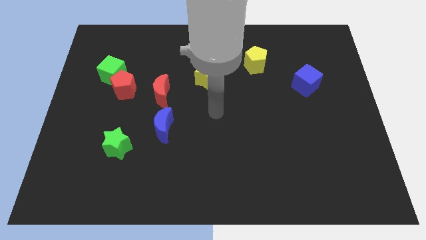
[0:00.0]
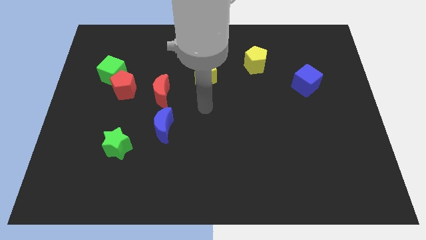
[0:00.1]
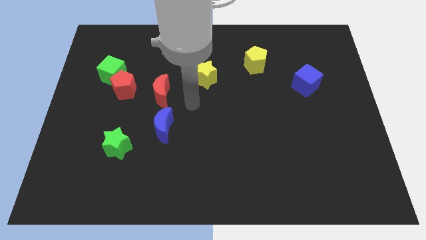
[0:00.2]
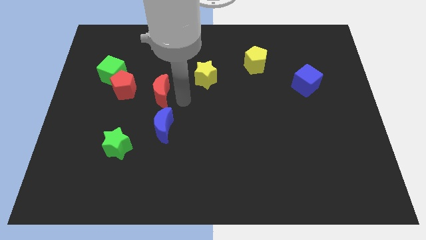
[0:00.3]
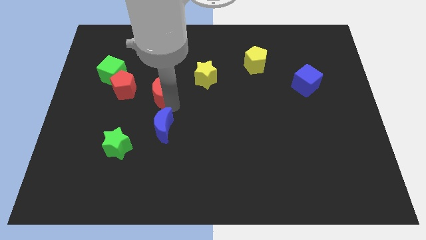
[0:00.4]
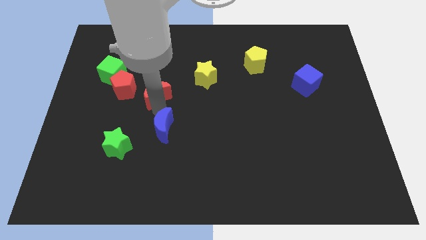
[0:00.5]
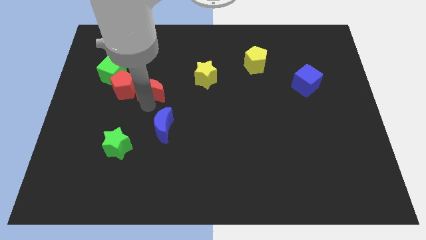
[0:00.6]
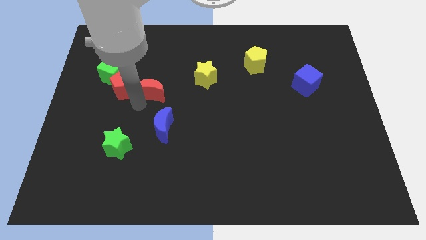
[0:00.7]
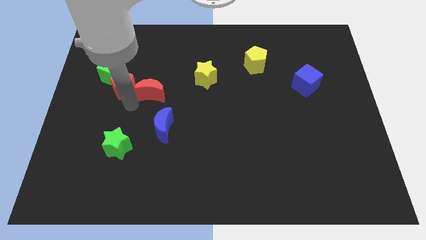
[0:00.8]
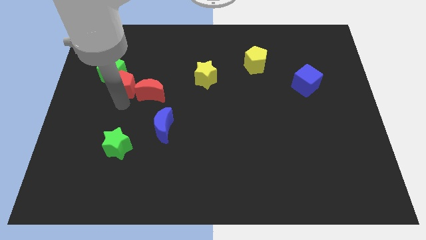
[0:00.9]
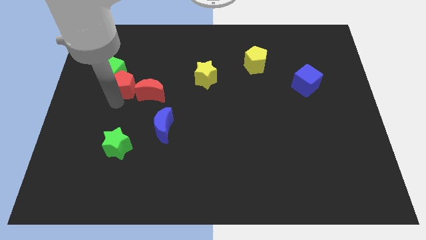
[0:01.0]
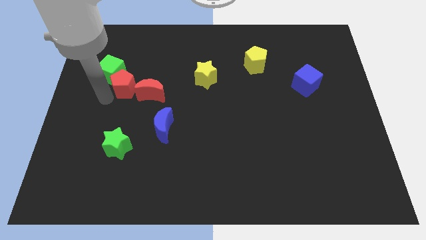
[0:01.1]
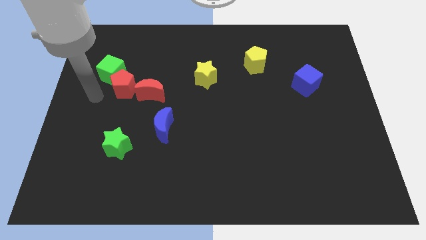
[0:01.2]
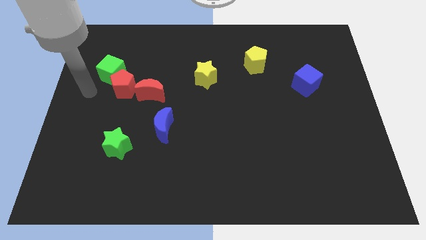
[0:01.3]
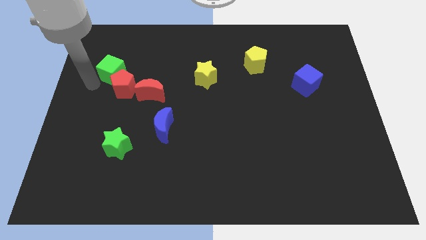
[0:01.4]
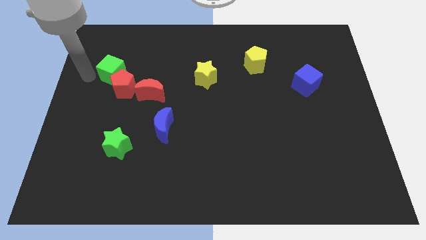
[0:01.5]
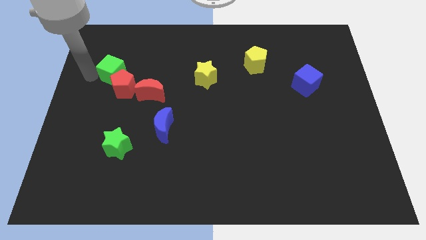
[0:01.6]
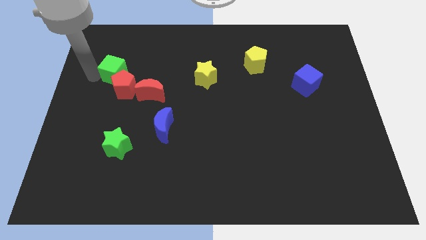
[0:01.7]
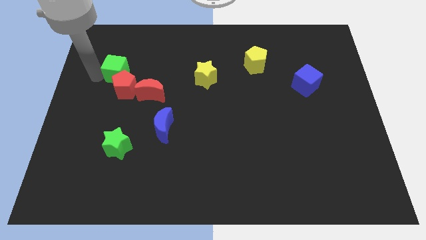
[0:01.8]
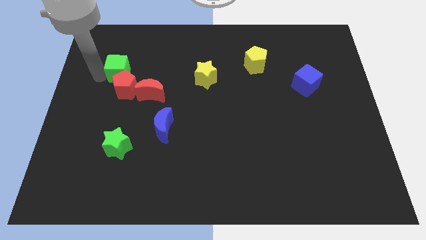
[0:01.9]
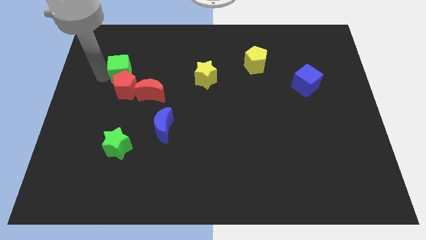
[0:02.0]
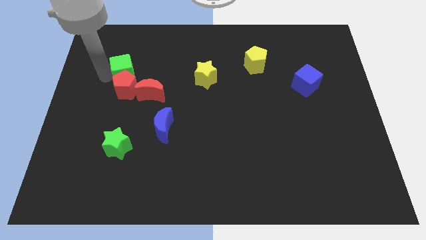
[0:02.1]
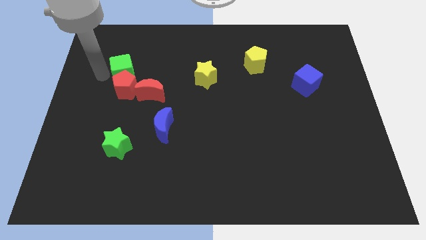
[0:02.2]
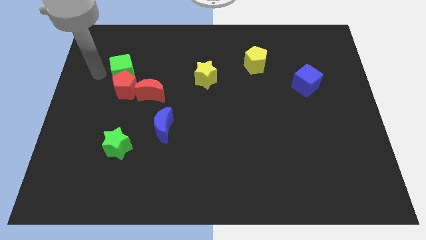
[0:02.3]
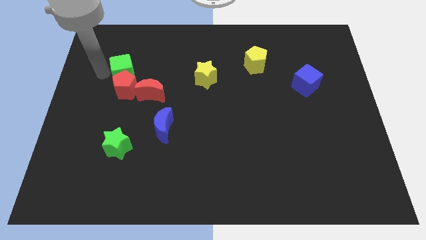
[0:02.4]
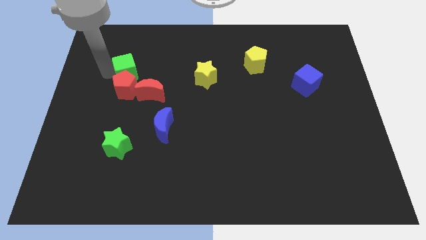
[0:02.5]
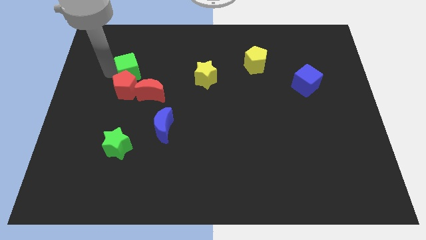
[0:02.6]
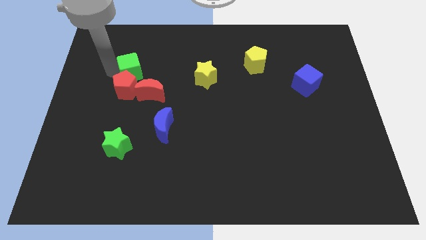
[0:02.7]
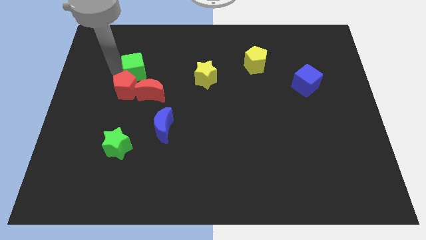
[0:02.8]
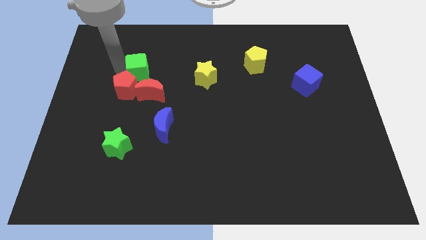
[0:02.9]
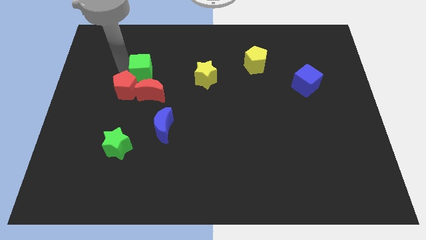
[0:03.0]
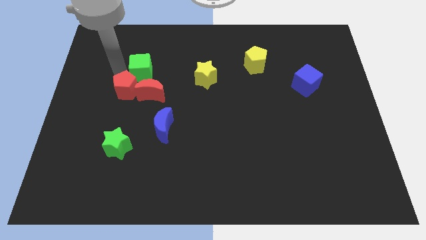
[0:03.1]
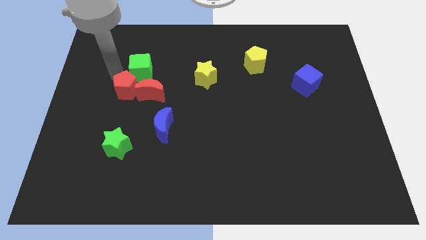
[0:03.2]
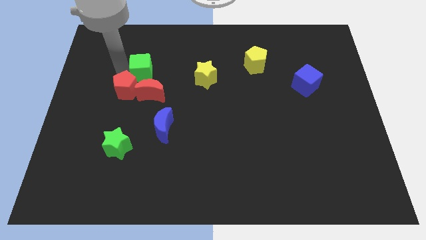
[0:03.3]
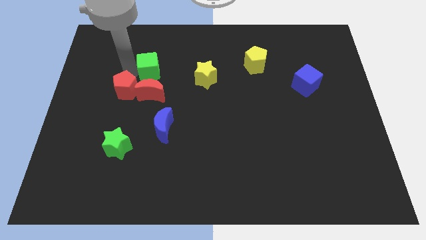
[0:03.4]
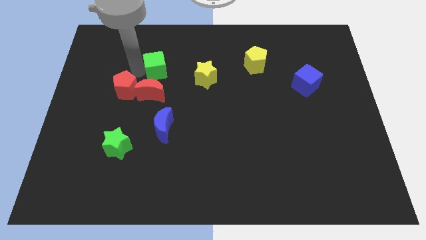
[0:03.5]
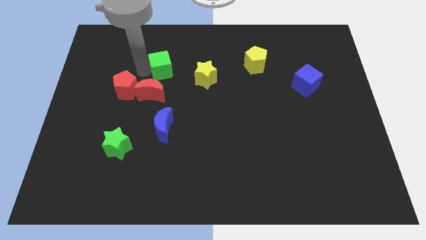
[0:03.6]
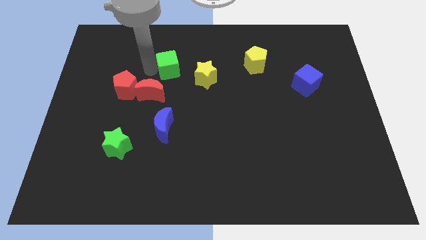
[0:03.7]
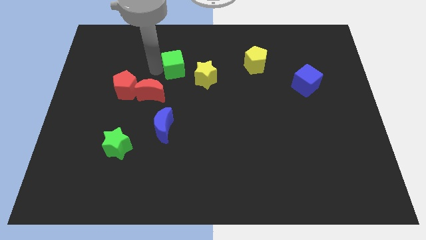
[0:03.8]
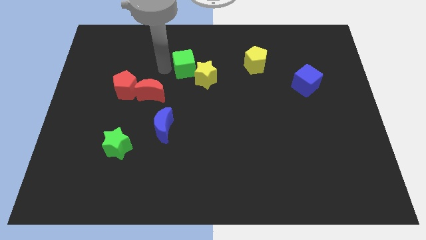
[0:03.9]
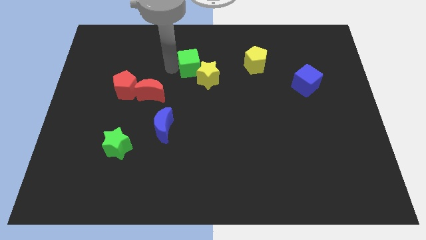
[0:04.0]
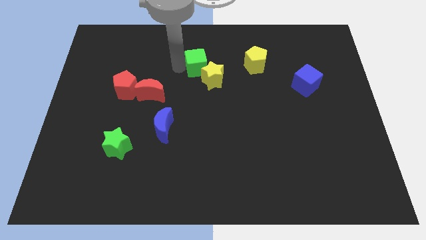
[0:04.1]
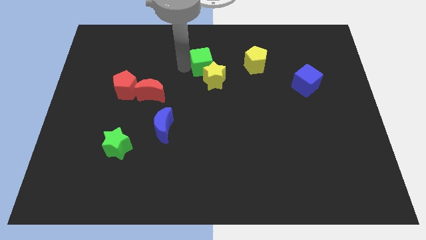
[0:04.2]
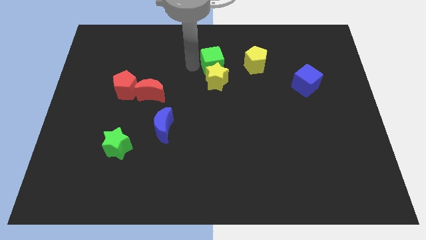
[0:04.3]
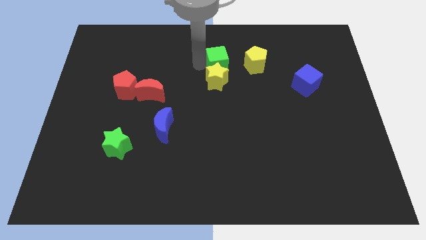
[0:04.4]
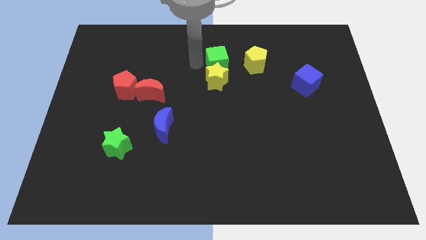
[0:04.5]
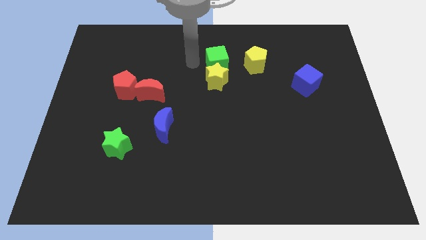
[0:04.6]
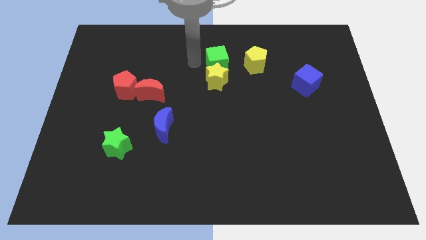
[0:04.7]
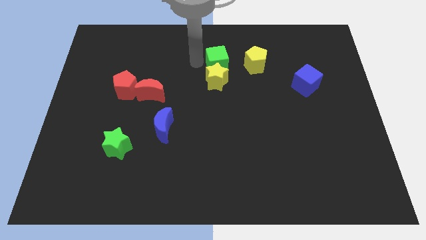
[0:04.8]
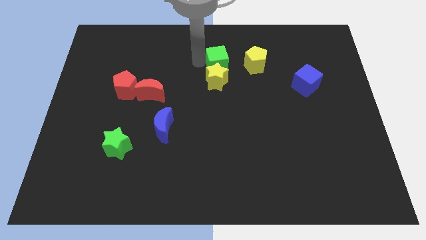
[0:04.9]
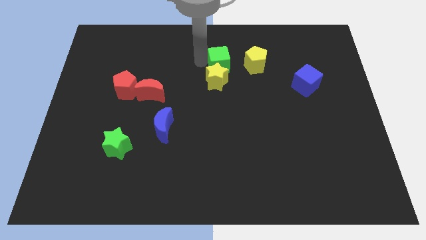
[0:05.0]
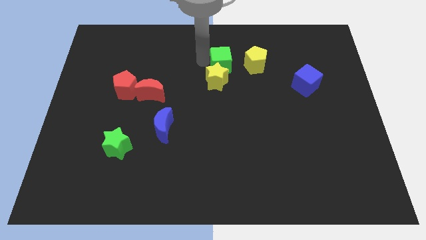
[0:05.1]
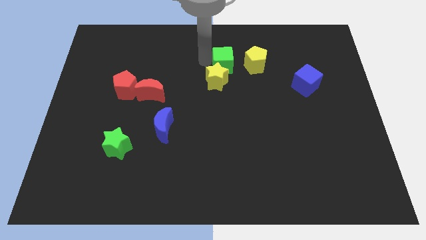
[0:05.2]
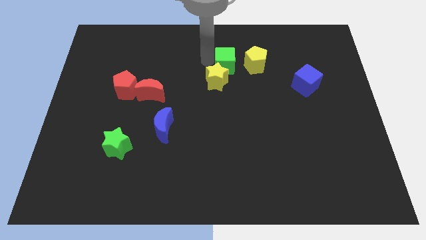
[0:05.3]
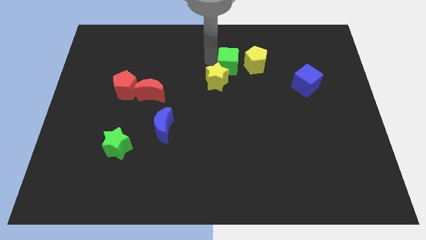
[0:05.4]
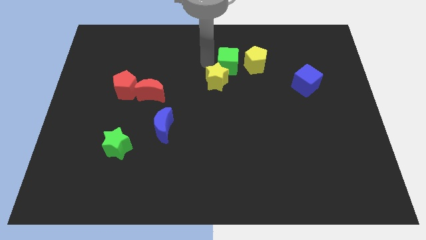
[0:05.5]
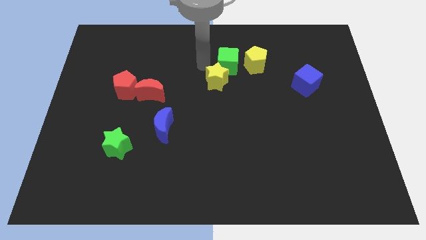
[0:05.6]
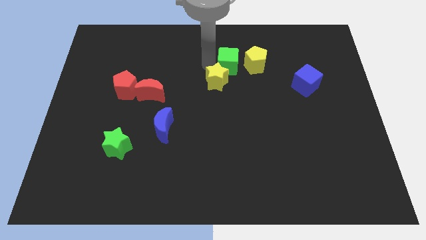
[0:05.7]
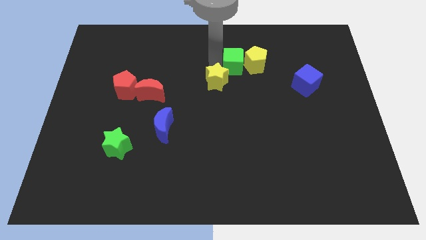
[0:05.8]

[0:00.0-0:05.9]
push the green cube to the yellow pentagon
